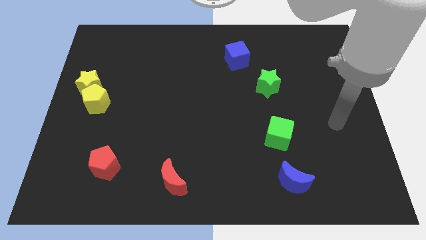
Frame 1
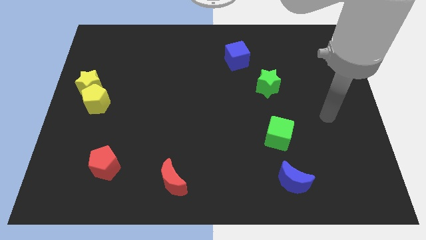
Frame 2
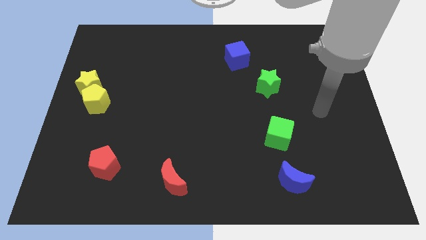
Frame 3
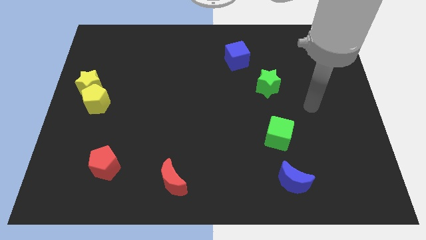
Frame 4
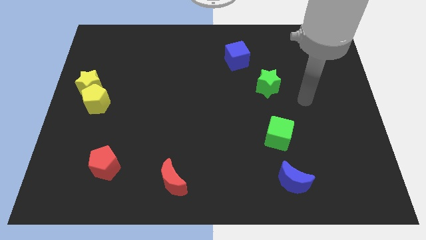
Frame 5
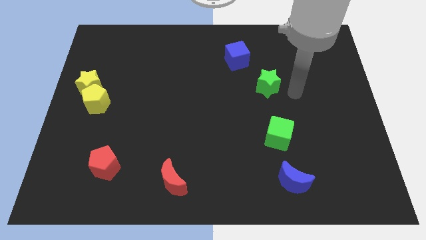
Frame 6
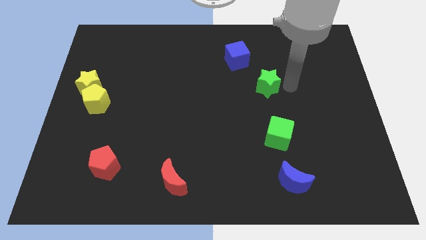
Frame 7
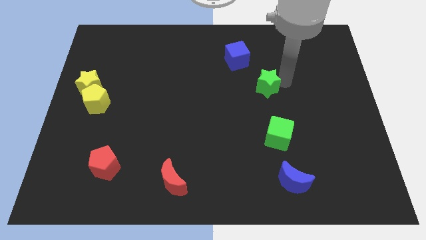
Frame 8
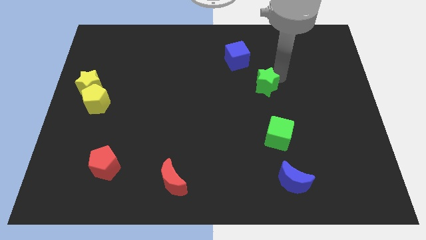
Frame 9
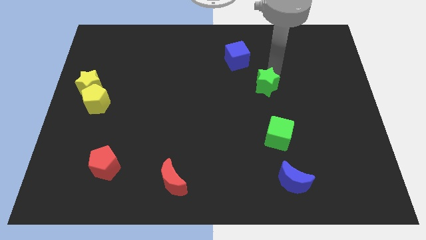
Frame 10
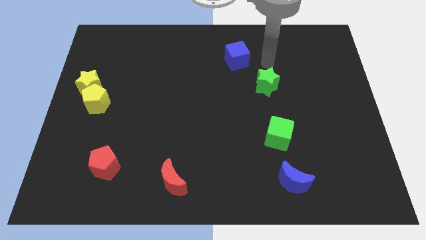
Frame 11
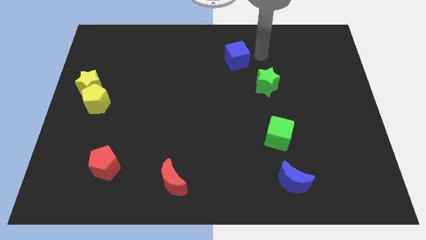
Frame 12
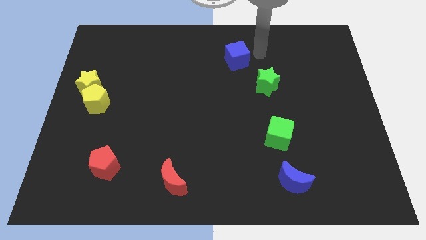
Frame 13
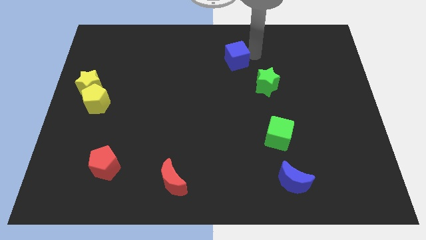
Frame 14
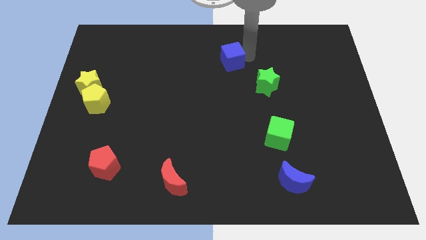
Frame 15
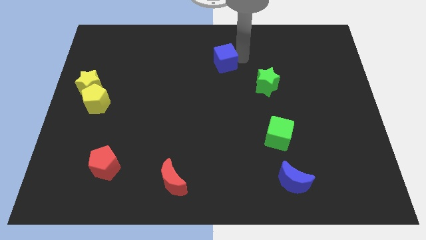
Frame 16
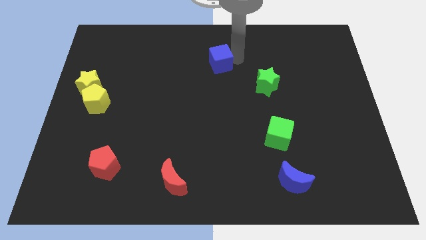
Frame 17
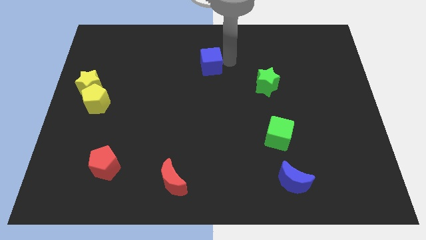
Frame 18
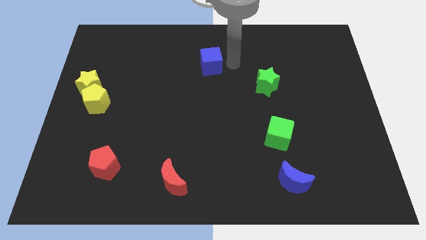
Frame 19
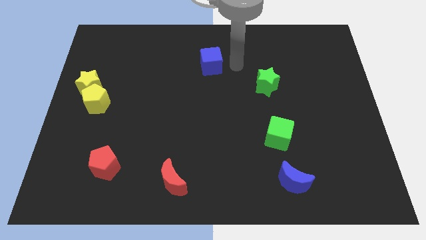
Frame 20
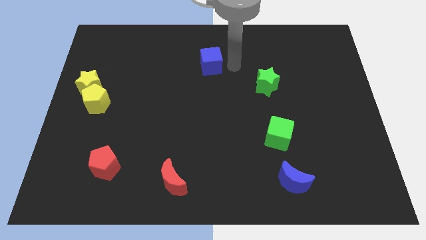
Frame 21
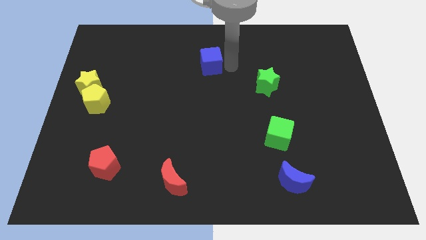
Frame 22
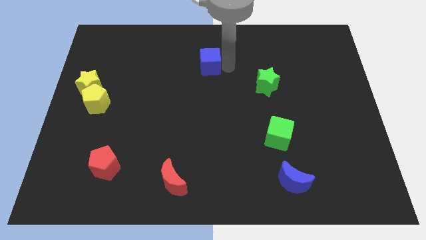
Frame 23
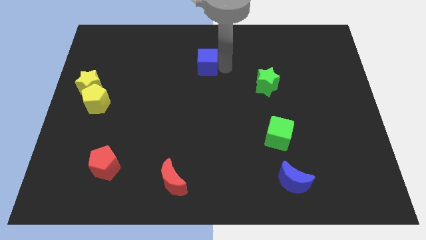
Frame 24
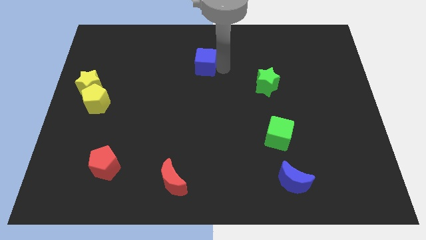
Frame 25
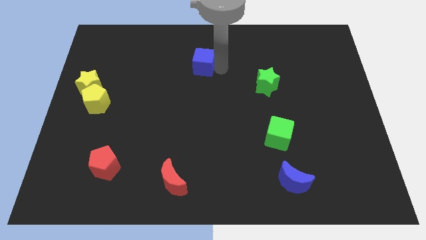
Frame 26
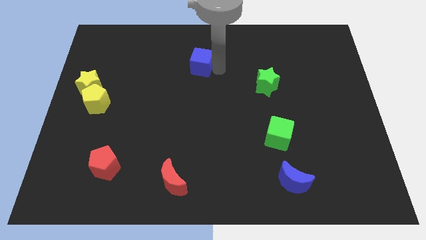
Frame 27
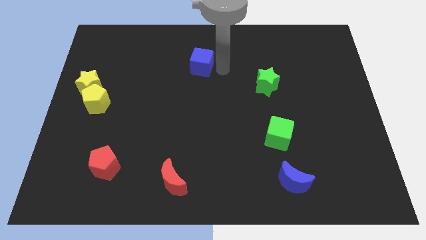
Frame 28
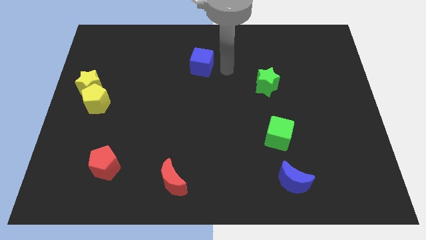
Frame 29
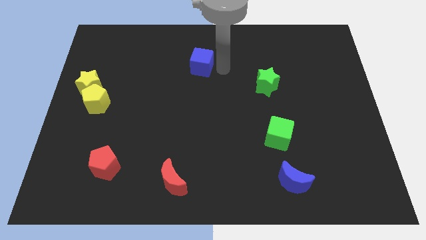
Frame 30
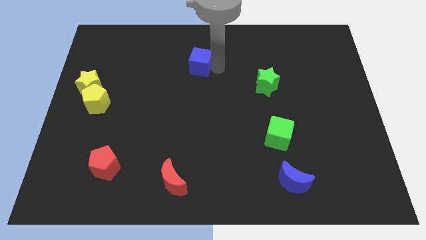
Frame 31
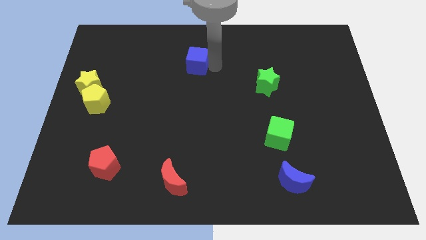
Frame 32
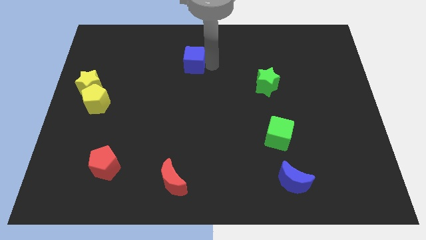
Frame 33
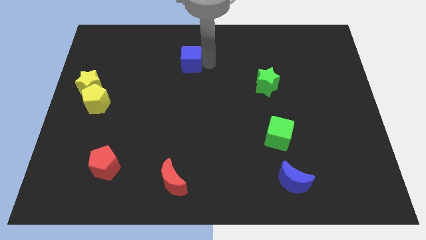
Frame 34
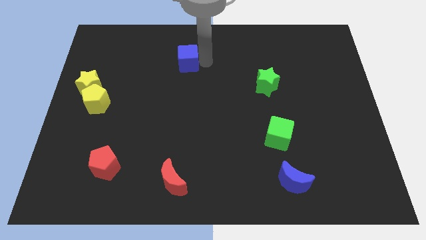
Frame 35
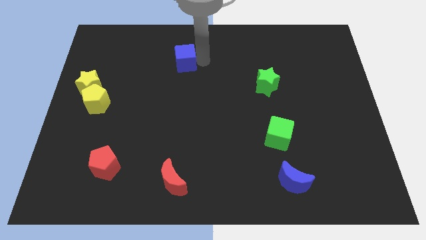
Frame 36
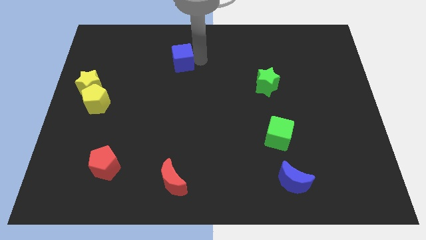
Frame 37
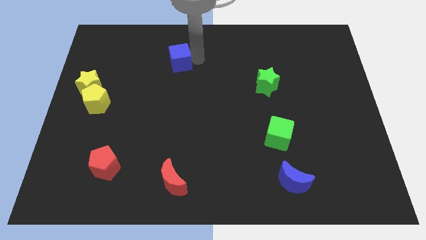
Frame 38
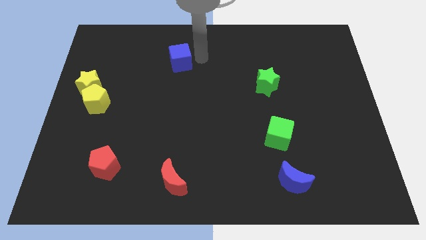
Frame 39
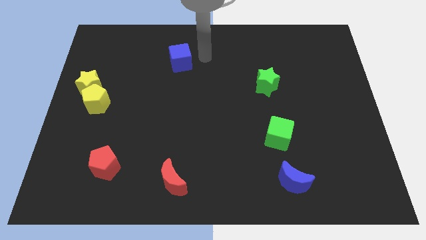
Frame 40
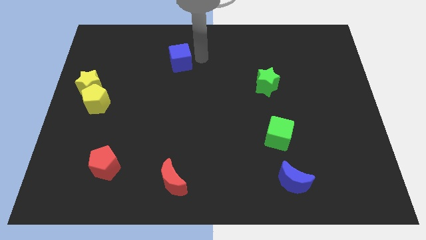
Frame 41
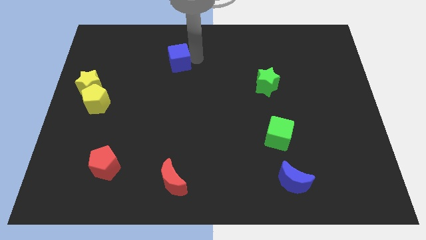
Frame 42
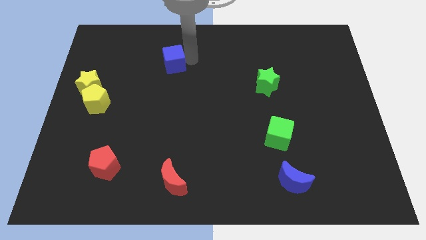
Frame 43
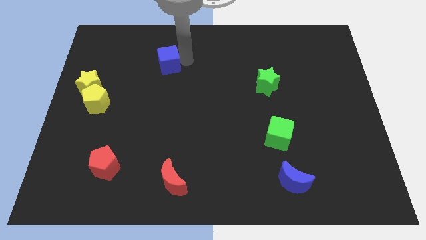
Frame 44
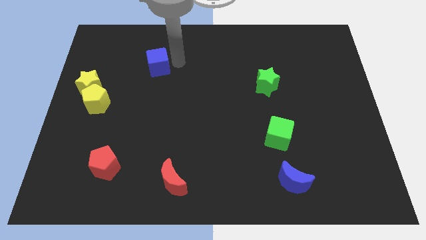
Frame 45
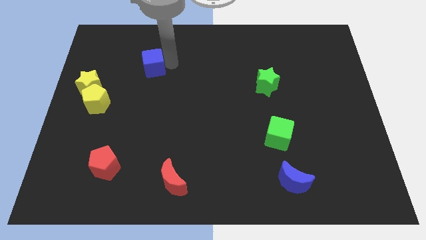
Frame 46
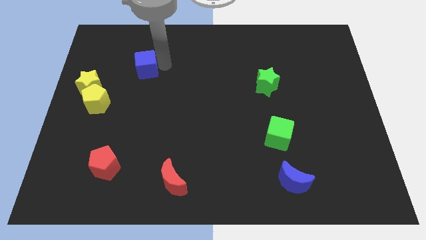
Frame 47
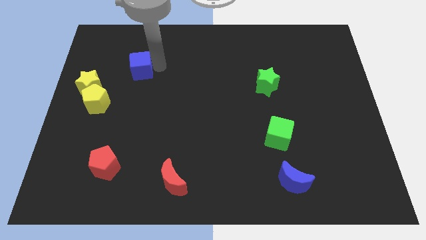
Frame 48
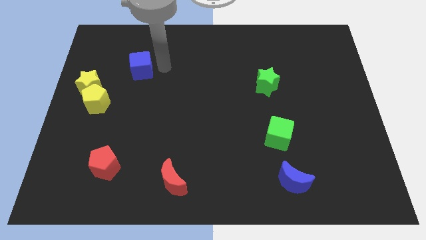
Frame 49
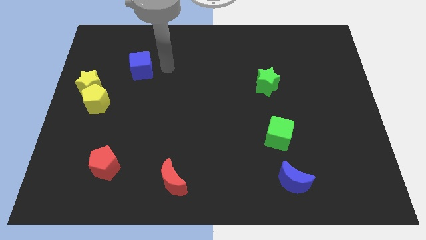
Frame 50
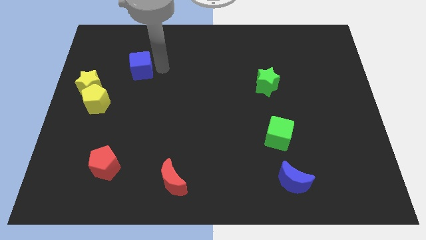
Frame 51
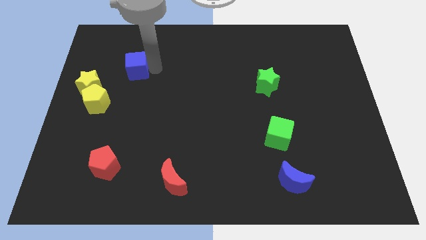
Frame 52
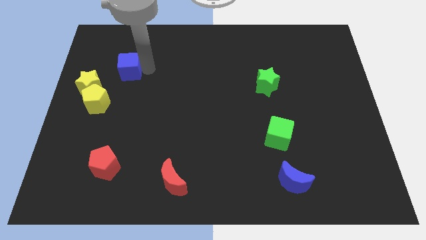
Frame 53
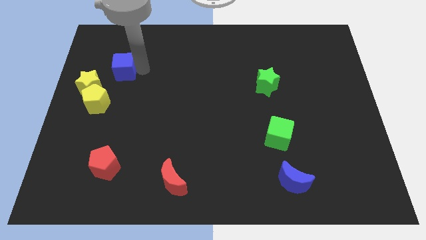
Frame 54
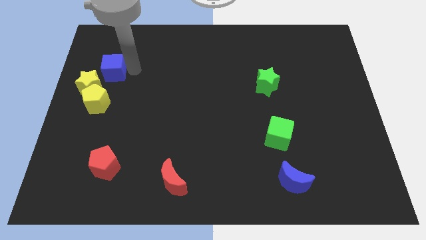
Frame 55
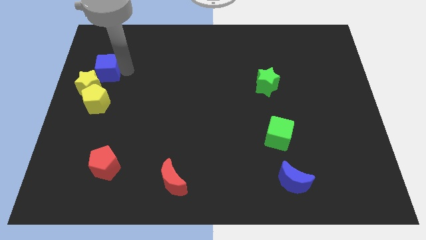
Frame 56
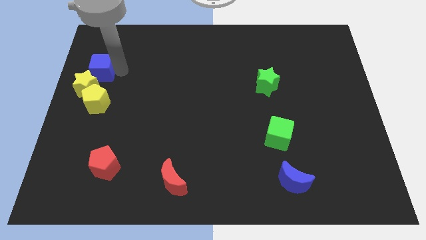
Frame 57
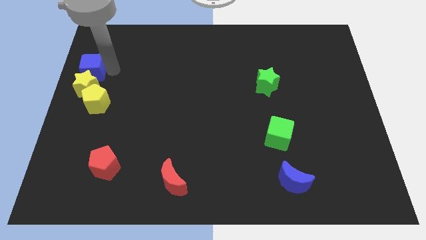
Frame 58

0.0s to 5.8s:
move the blue cube to the left side
